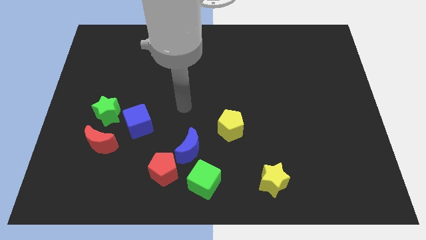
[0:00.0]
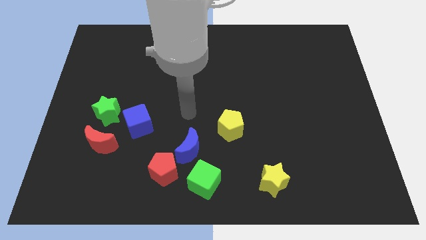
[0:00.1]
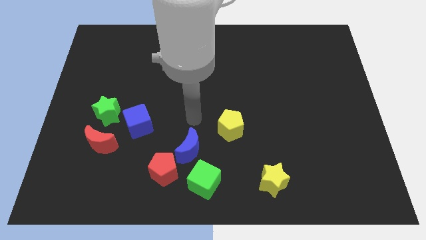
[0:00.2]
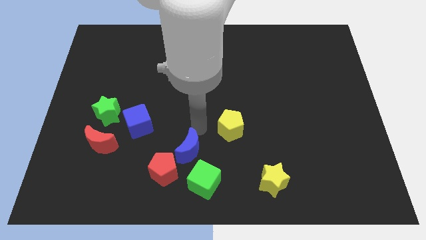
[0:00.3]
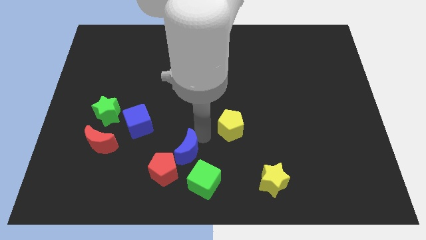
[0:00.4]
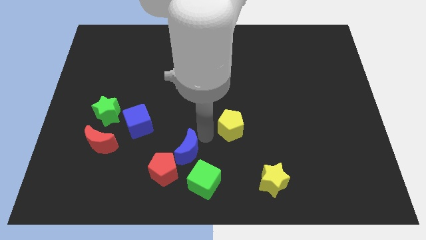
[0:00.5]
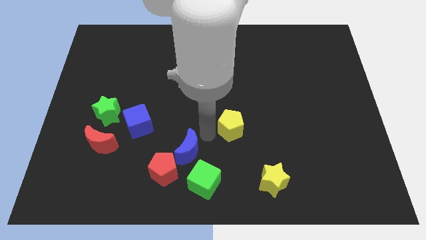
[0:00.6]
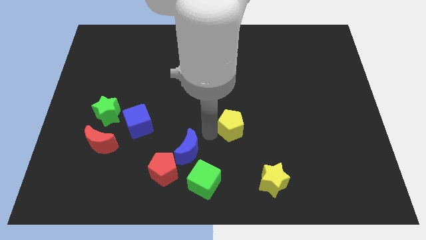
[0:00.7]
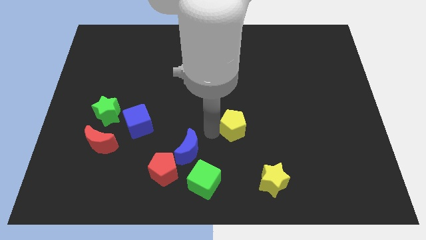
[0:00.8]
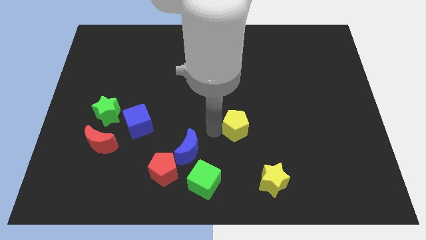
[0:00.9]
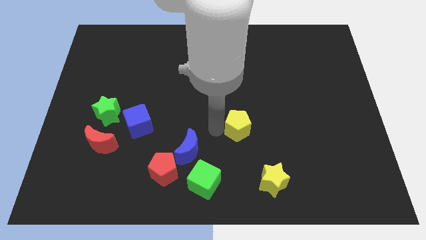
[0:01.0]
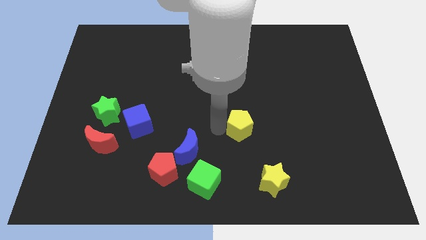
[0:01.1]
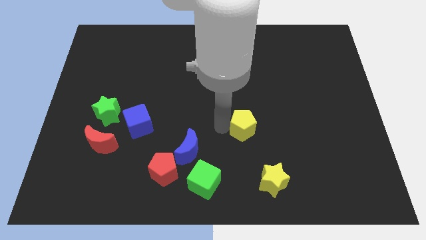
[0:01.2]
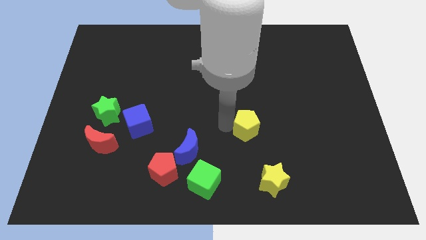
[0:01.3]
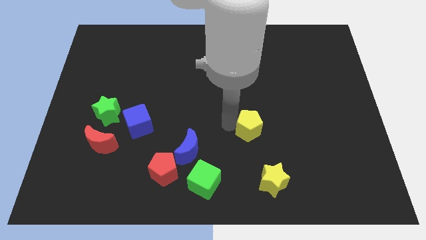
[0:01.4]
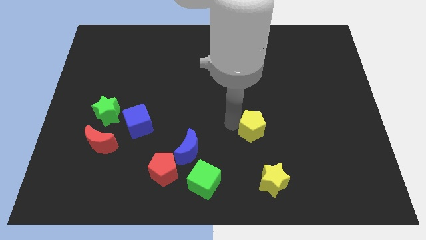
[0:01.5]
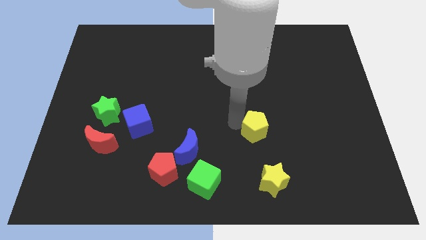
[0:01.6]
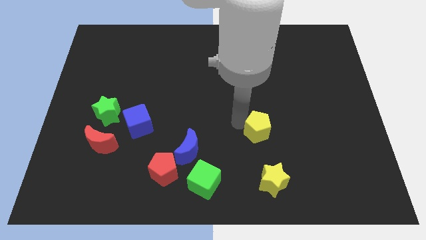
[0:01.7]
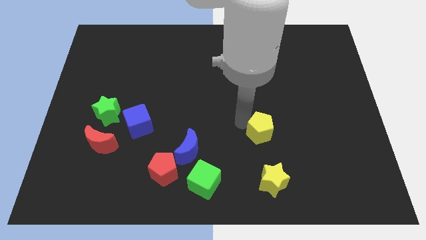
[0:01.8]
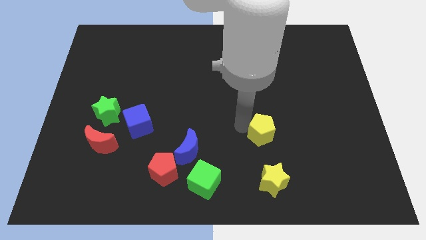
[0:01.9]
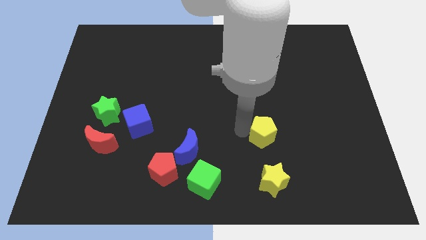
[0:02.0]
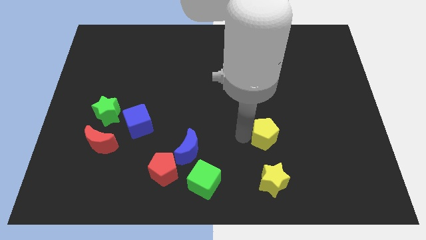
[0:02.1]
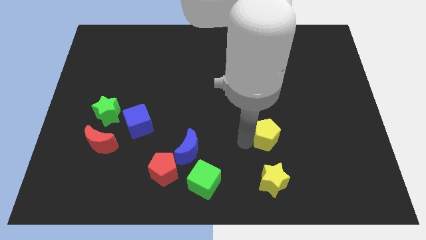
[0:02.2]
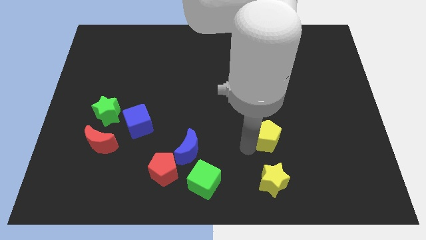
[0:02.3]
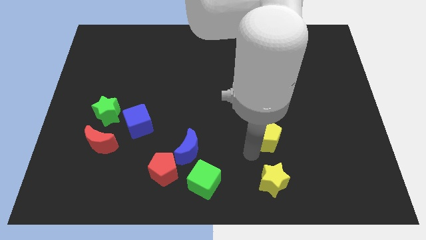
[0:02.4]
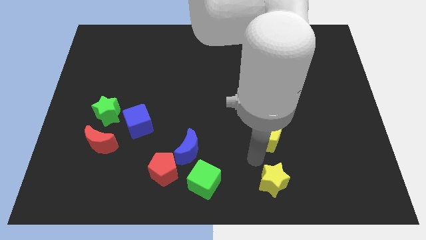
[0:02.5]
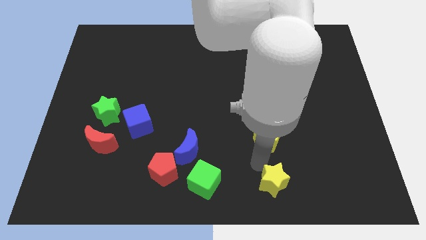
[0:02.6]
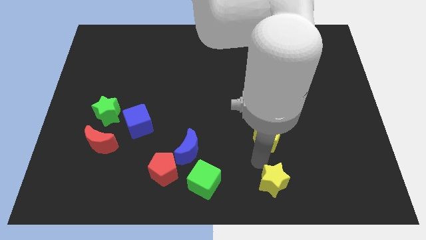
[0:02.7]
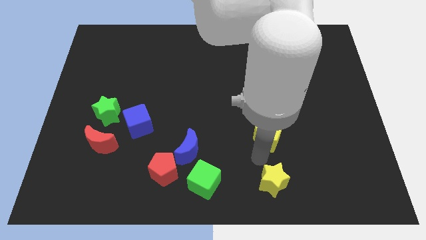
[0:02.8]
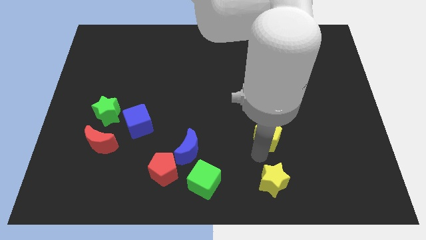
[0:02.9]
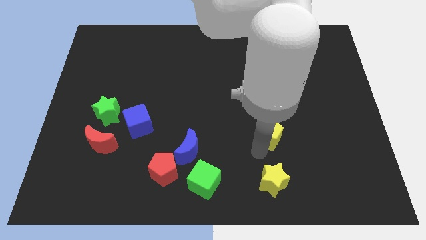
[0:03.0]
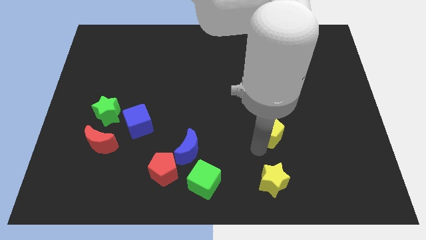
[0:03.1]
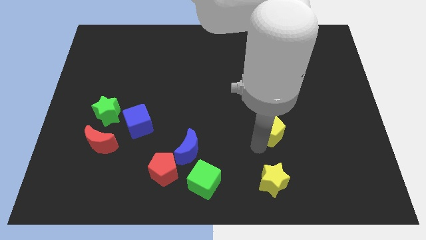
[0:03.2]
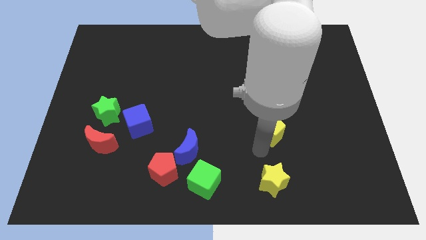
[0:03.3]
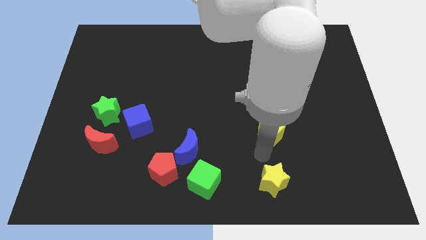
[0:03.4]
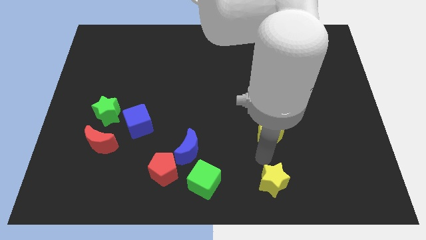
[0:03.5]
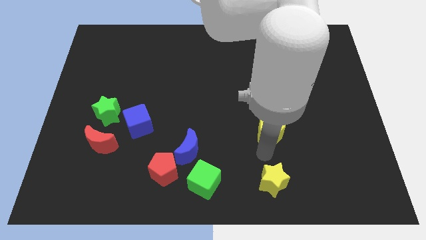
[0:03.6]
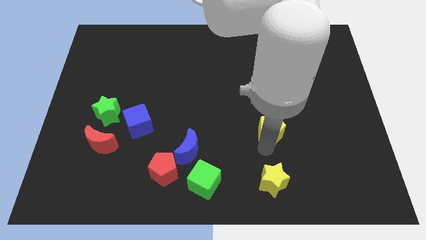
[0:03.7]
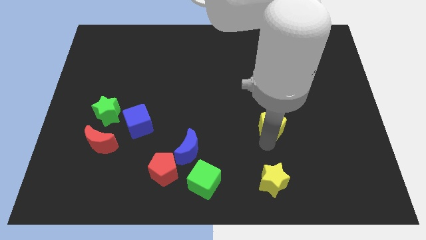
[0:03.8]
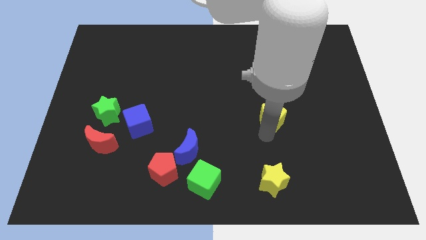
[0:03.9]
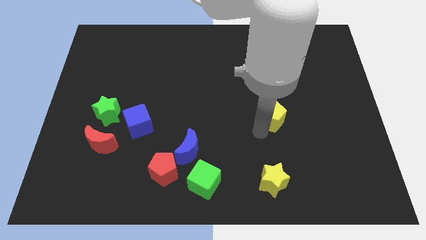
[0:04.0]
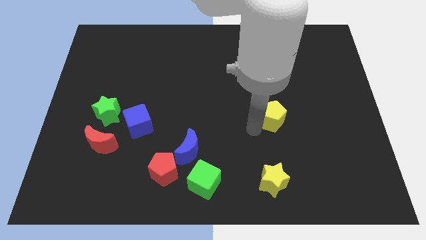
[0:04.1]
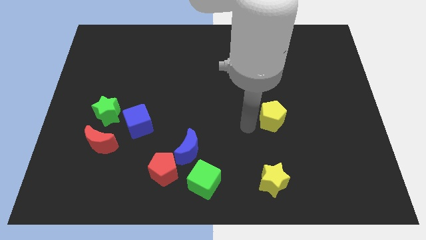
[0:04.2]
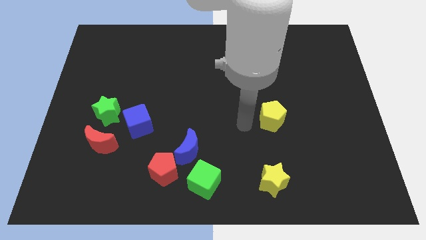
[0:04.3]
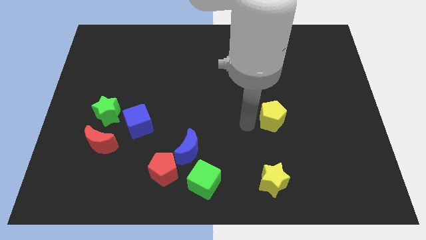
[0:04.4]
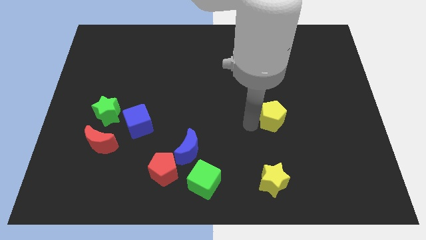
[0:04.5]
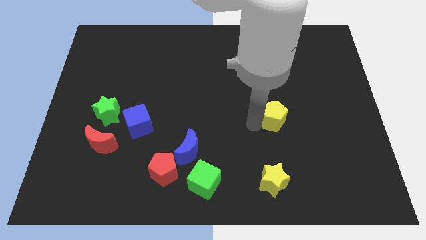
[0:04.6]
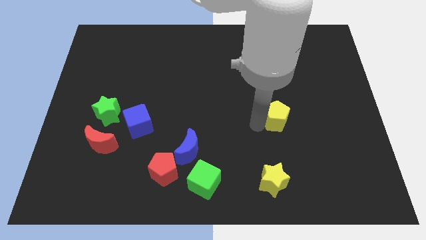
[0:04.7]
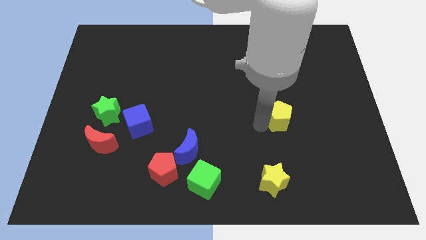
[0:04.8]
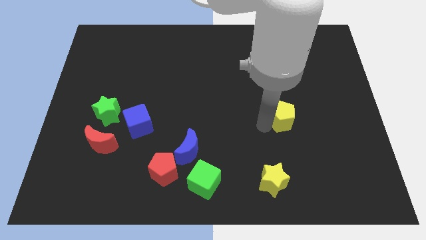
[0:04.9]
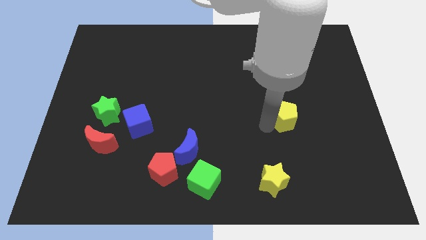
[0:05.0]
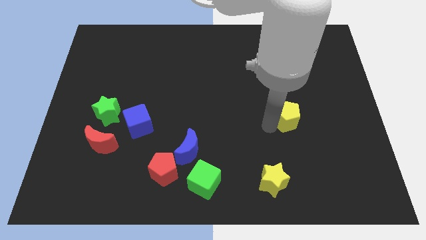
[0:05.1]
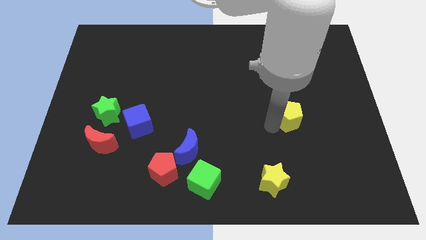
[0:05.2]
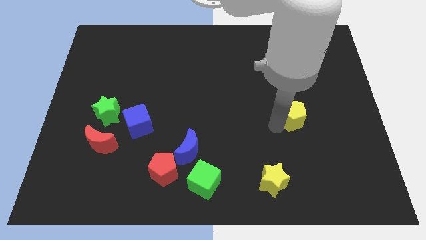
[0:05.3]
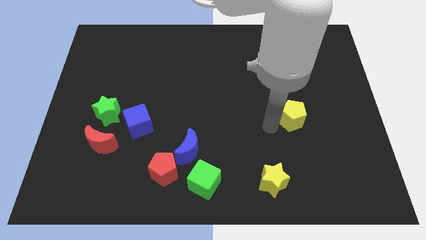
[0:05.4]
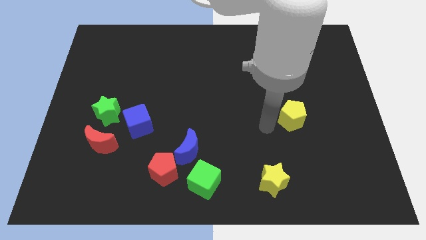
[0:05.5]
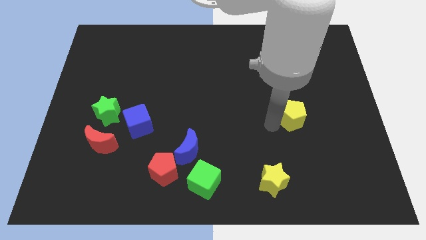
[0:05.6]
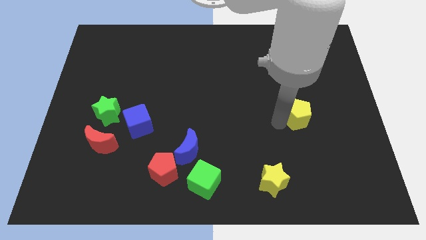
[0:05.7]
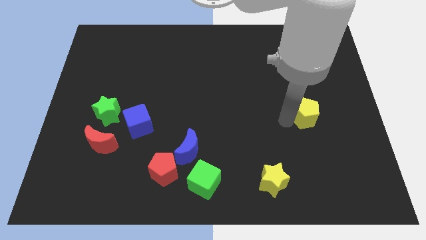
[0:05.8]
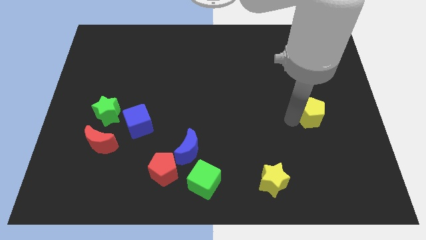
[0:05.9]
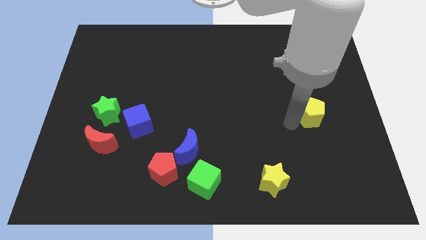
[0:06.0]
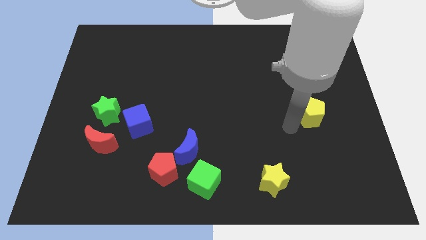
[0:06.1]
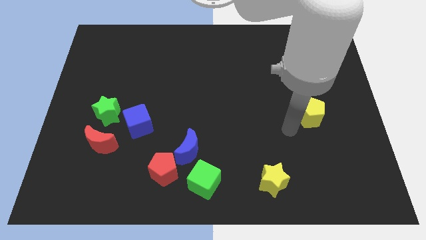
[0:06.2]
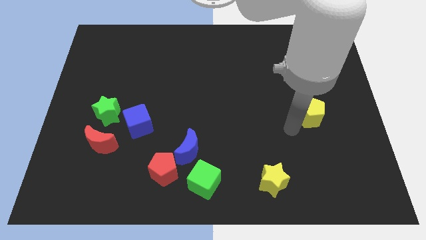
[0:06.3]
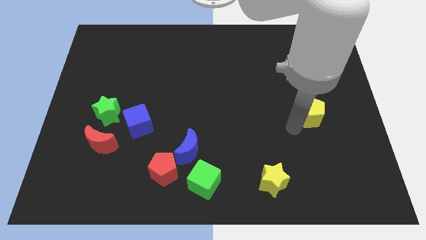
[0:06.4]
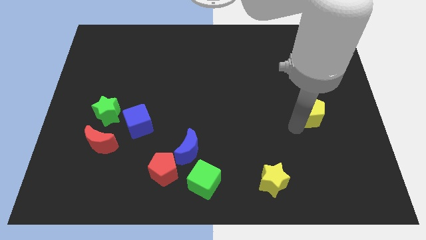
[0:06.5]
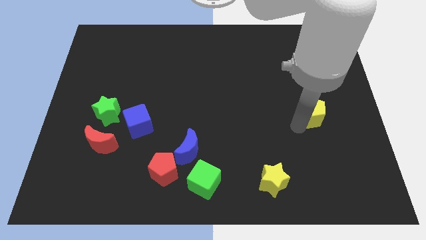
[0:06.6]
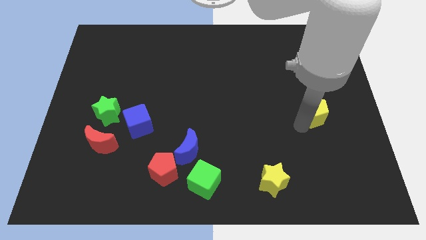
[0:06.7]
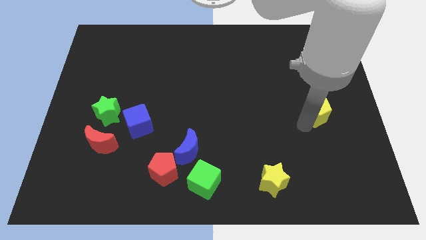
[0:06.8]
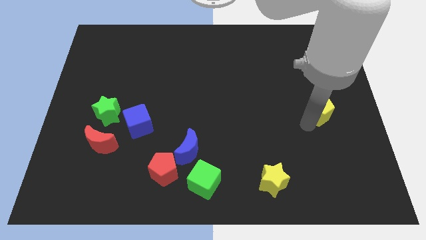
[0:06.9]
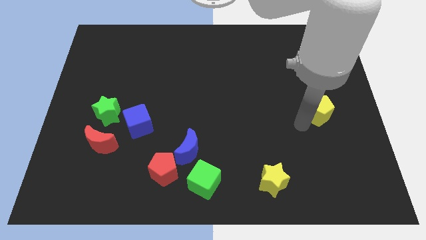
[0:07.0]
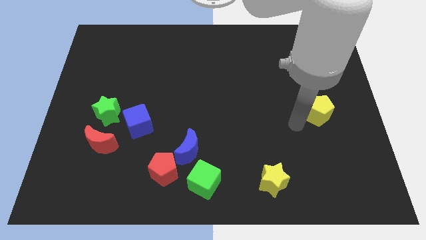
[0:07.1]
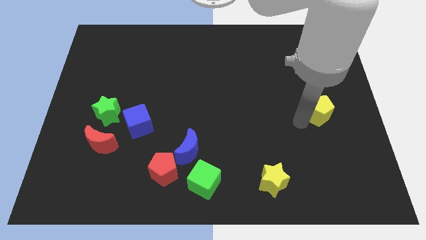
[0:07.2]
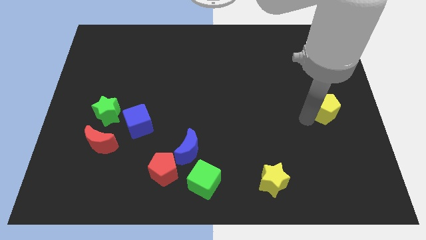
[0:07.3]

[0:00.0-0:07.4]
move the yellow pentagon to the right side of the board

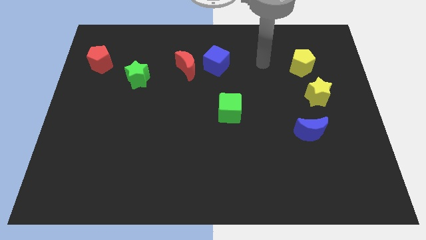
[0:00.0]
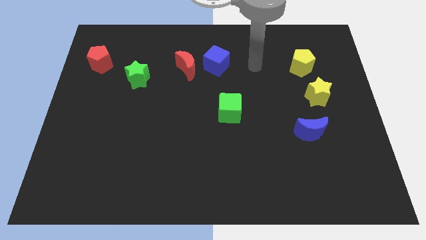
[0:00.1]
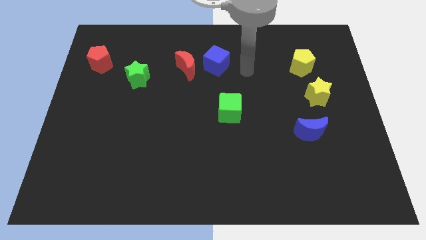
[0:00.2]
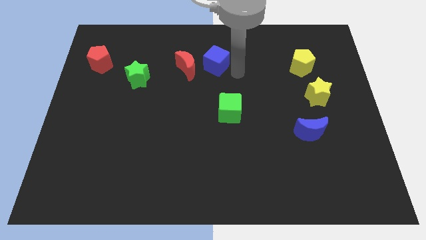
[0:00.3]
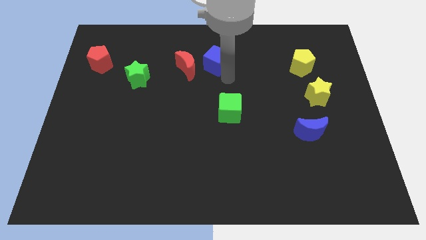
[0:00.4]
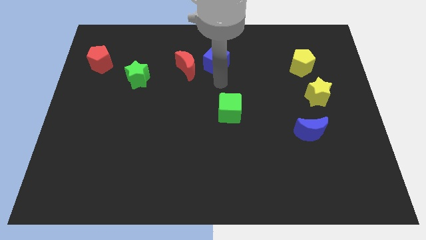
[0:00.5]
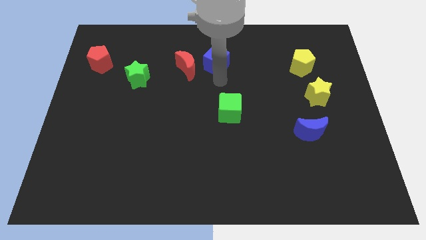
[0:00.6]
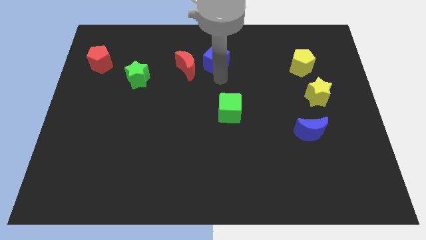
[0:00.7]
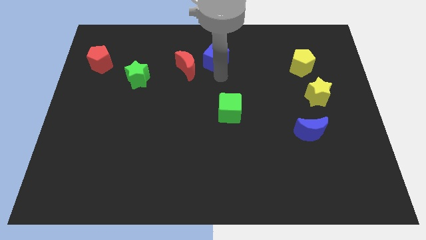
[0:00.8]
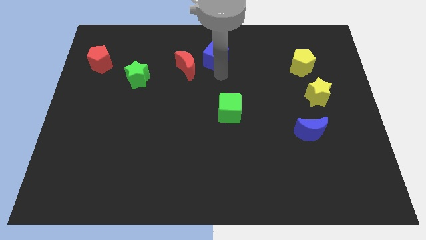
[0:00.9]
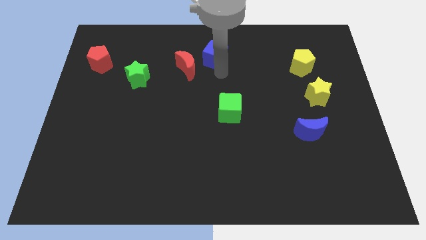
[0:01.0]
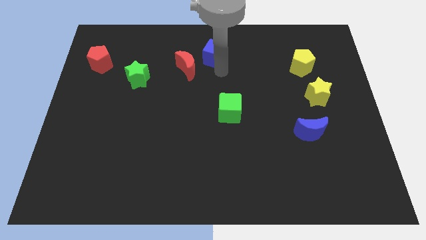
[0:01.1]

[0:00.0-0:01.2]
move the blue cube to the towards your base
